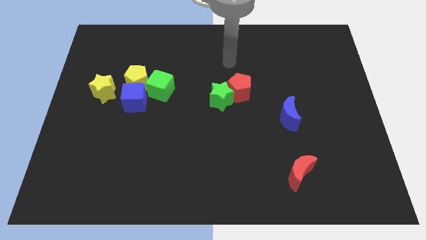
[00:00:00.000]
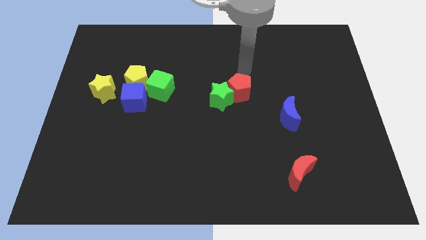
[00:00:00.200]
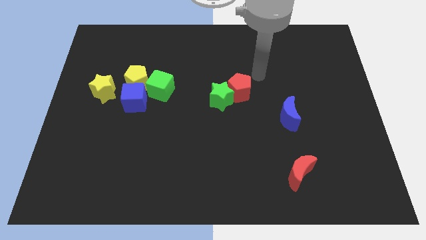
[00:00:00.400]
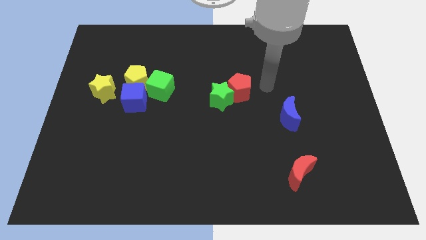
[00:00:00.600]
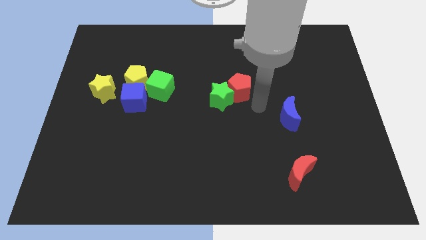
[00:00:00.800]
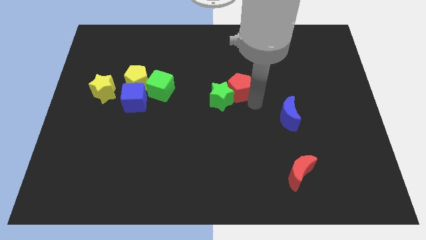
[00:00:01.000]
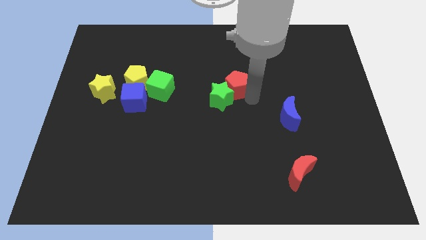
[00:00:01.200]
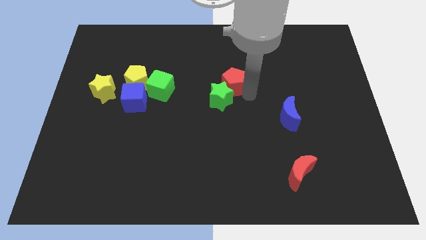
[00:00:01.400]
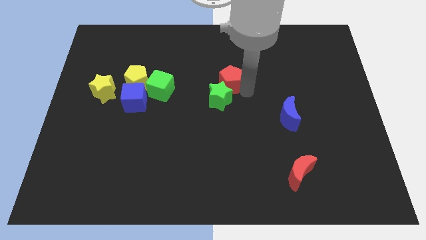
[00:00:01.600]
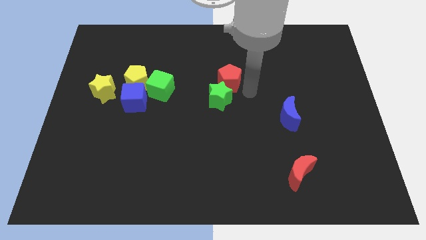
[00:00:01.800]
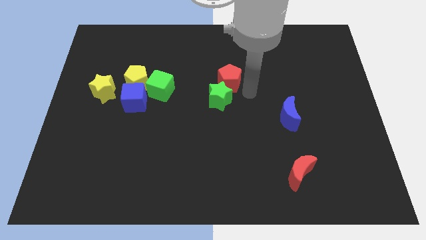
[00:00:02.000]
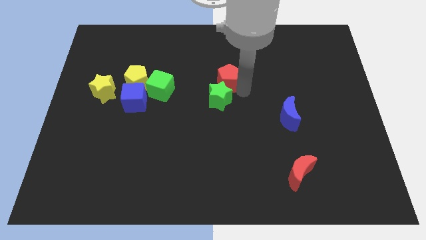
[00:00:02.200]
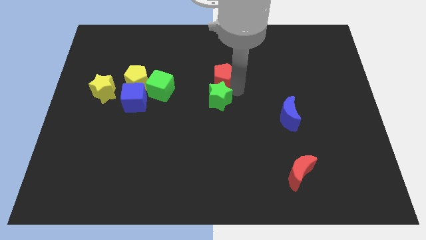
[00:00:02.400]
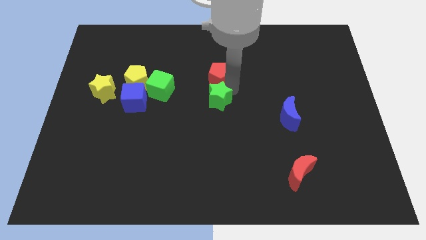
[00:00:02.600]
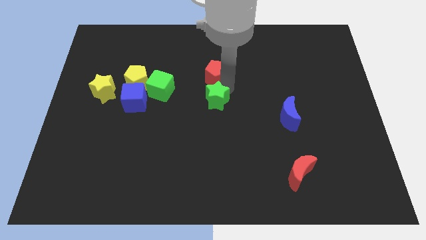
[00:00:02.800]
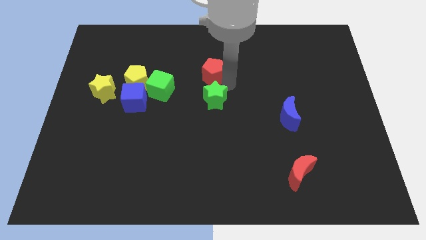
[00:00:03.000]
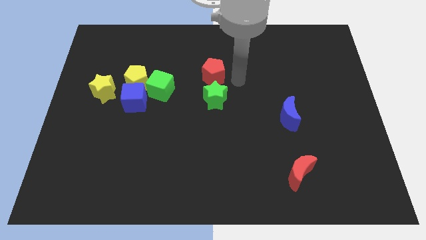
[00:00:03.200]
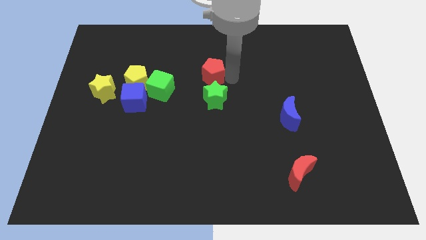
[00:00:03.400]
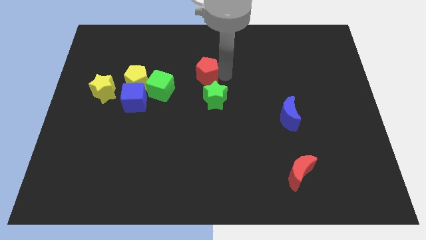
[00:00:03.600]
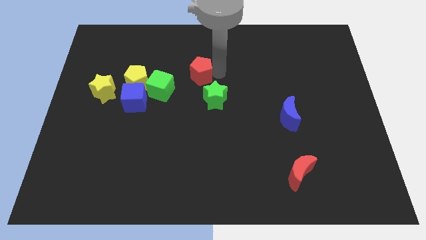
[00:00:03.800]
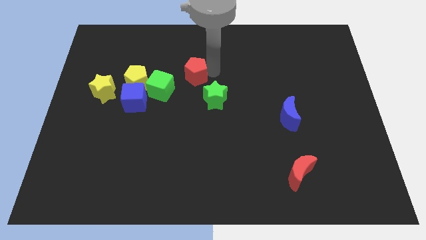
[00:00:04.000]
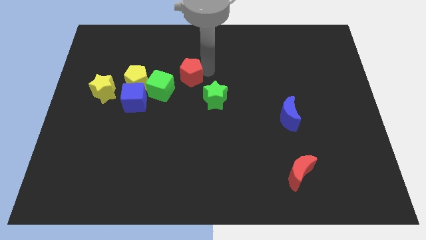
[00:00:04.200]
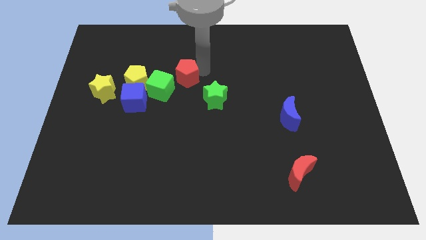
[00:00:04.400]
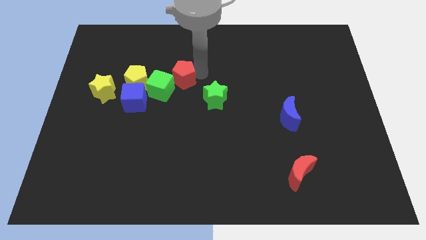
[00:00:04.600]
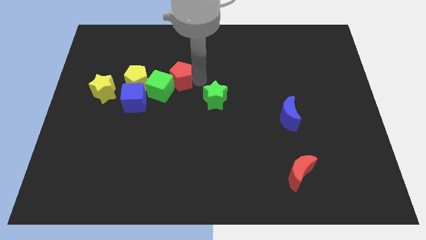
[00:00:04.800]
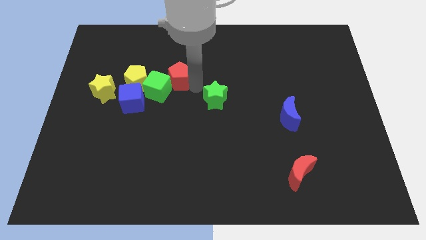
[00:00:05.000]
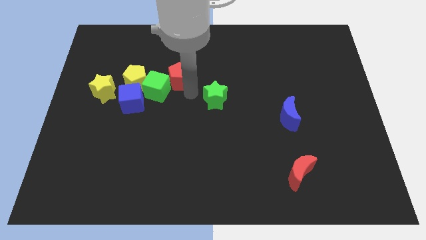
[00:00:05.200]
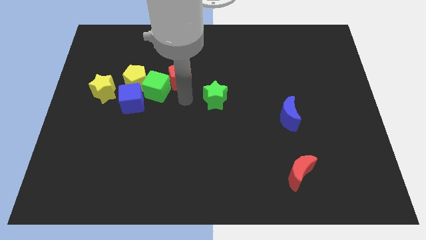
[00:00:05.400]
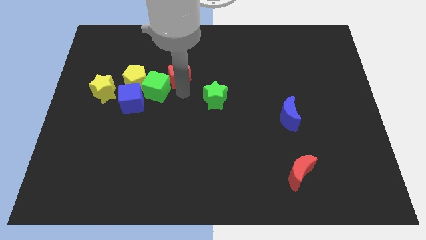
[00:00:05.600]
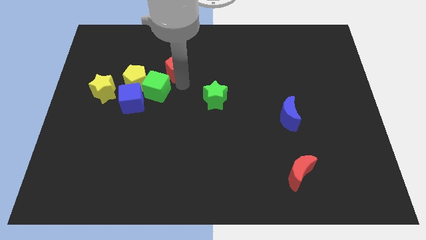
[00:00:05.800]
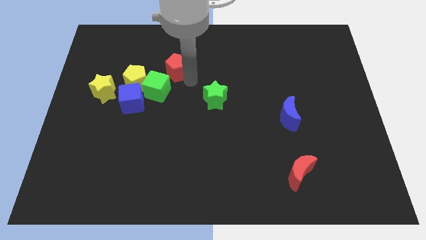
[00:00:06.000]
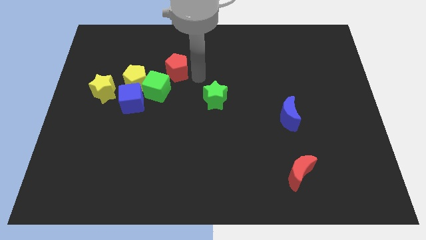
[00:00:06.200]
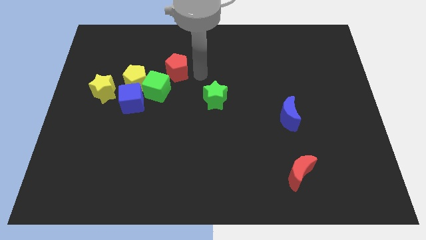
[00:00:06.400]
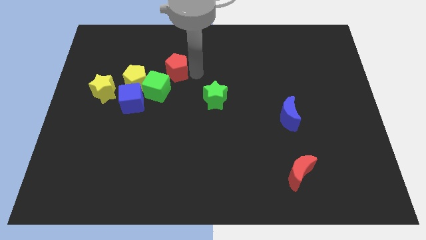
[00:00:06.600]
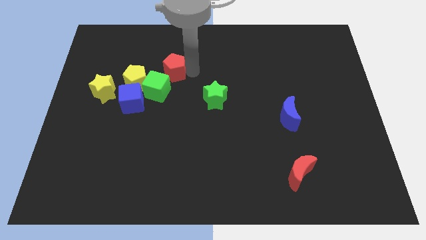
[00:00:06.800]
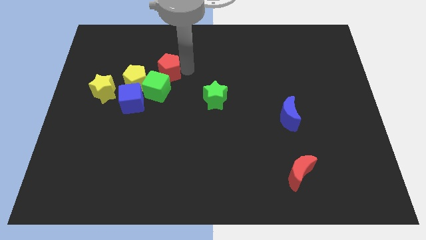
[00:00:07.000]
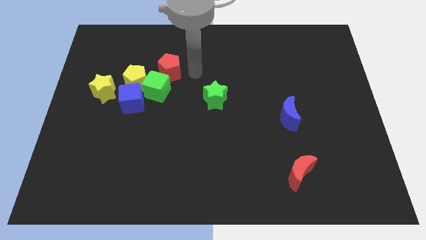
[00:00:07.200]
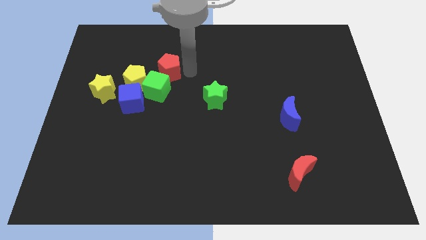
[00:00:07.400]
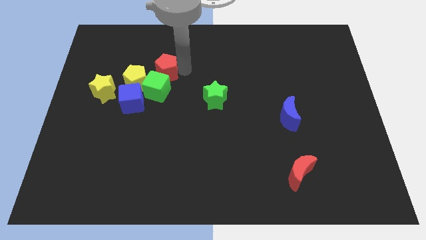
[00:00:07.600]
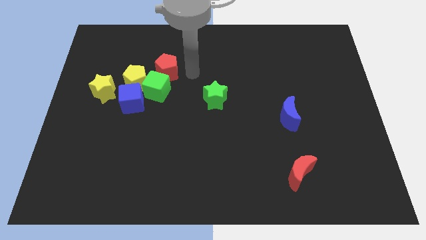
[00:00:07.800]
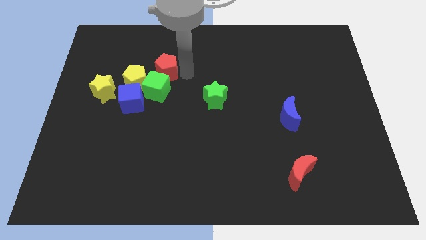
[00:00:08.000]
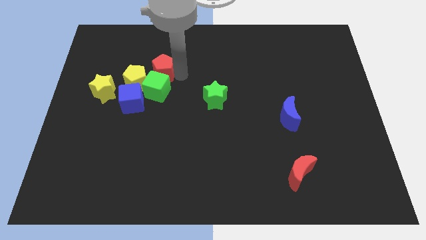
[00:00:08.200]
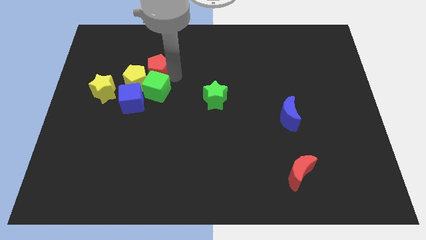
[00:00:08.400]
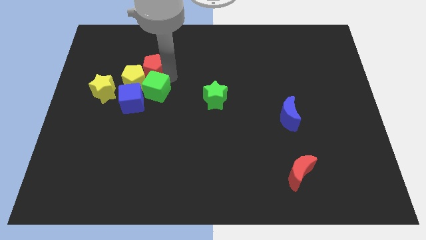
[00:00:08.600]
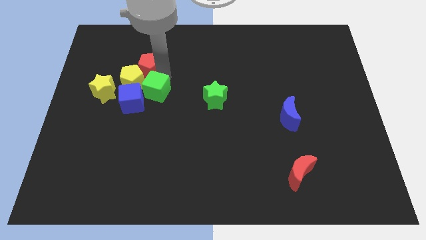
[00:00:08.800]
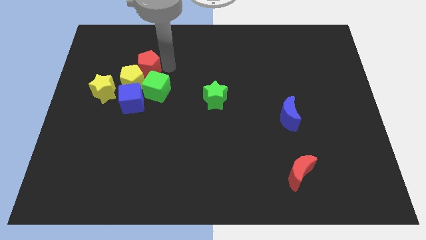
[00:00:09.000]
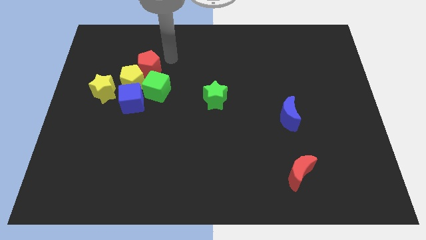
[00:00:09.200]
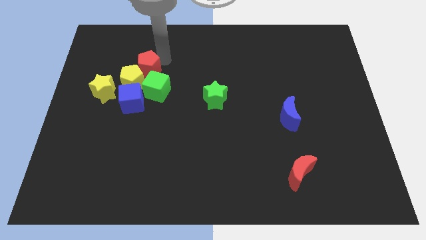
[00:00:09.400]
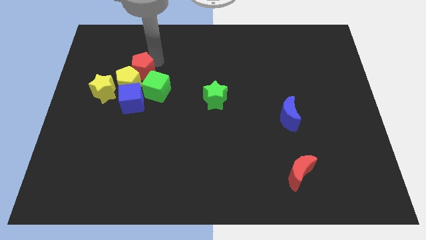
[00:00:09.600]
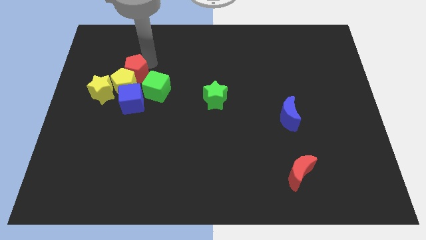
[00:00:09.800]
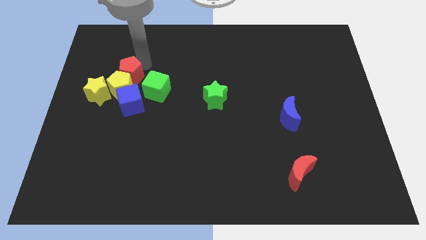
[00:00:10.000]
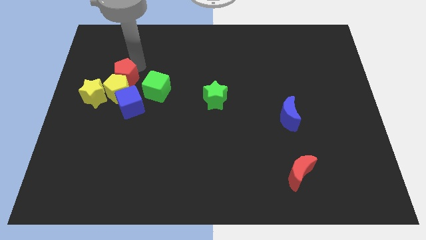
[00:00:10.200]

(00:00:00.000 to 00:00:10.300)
slide the red pentagon to the top left side of the blue cube

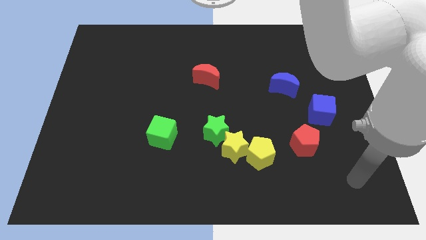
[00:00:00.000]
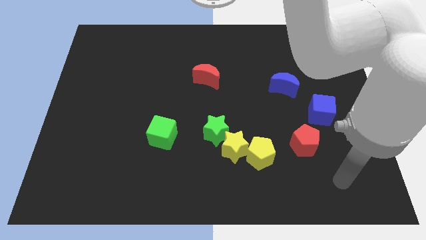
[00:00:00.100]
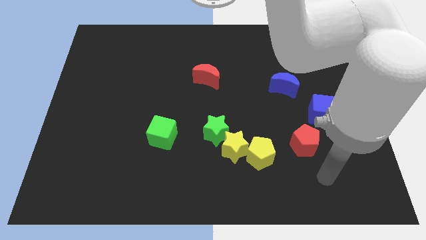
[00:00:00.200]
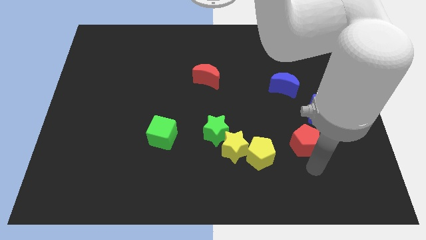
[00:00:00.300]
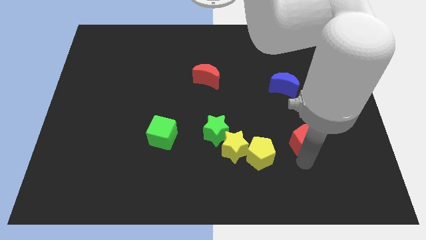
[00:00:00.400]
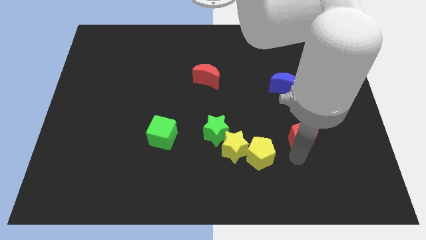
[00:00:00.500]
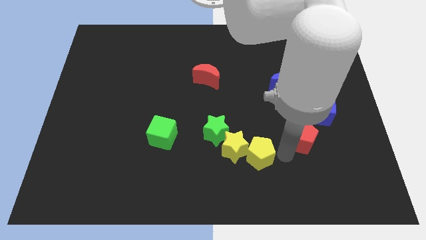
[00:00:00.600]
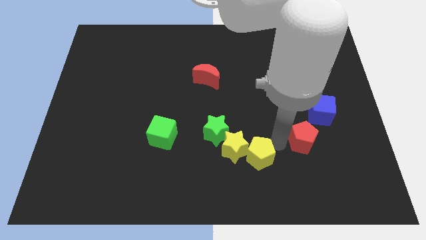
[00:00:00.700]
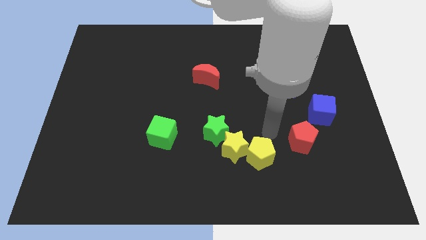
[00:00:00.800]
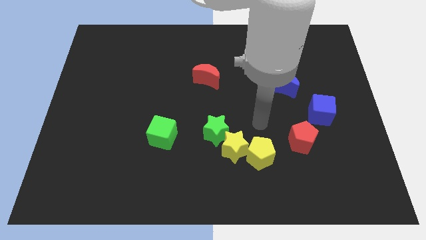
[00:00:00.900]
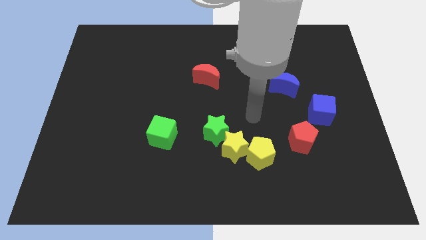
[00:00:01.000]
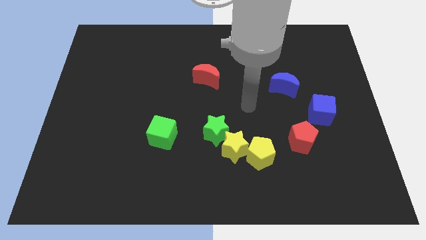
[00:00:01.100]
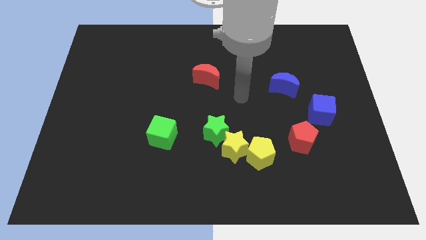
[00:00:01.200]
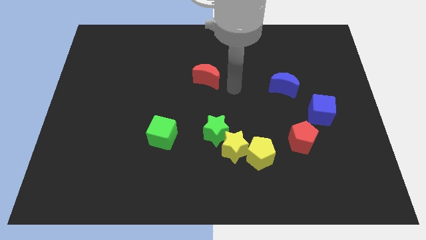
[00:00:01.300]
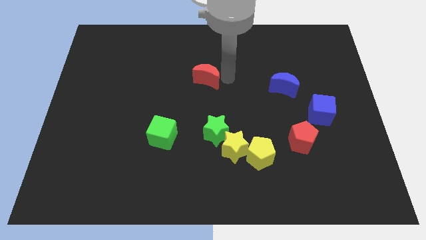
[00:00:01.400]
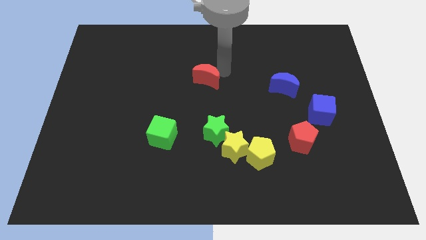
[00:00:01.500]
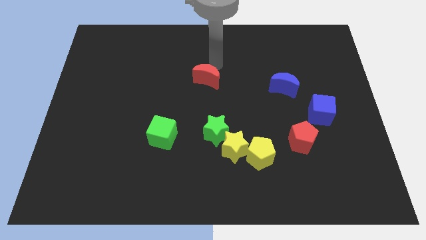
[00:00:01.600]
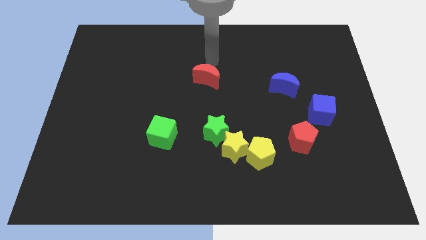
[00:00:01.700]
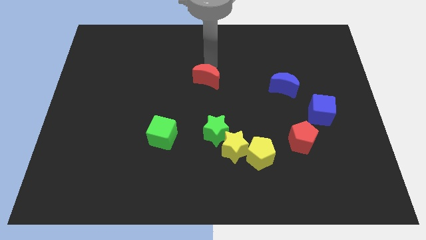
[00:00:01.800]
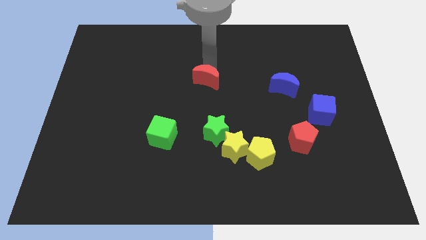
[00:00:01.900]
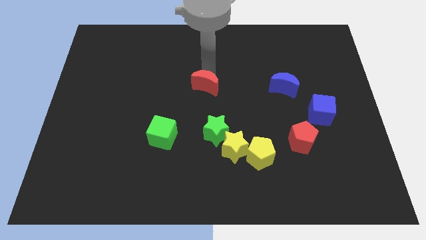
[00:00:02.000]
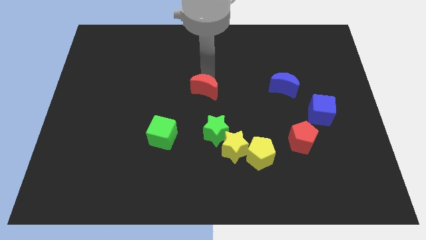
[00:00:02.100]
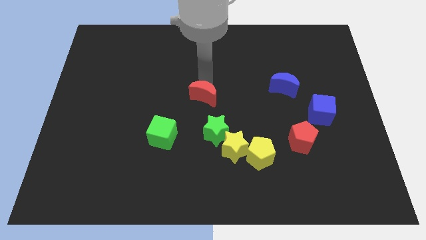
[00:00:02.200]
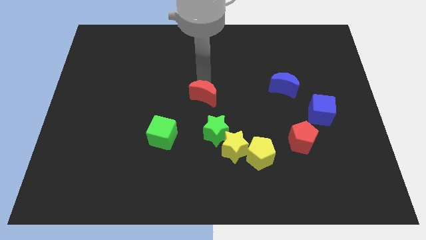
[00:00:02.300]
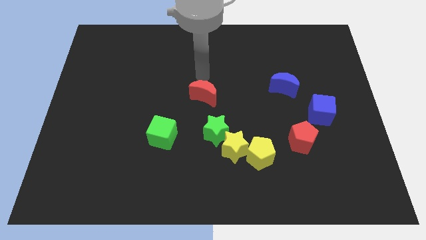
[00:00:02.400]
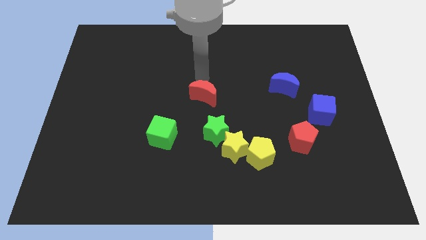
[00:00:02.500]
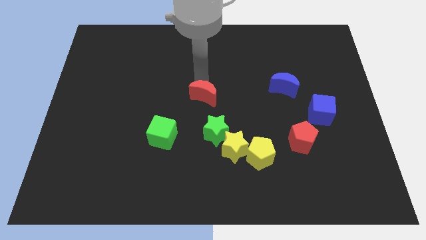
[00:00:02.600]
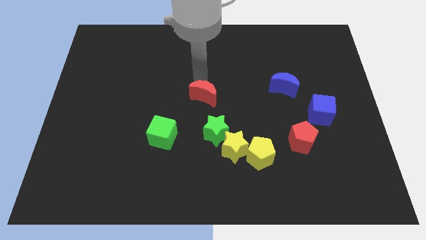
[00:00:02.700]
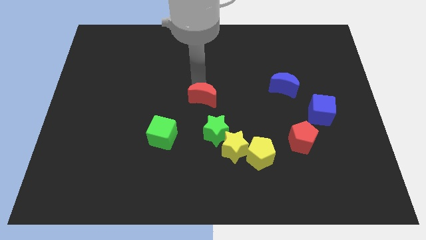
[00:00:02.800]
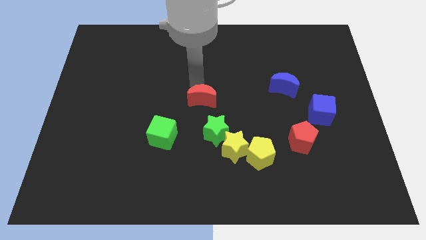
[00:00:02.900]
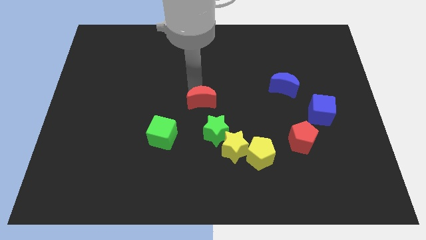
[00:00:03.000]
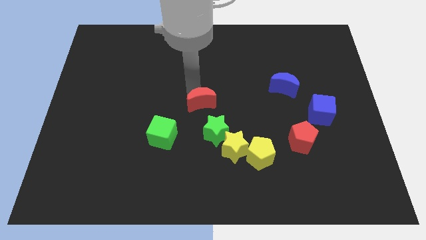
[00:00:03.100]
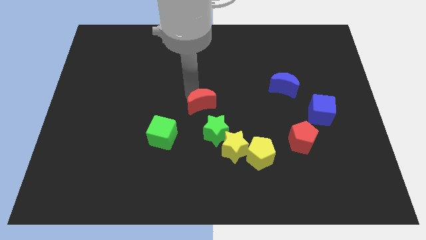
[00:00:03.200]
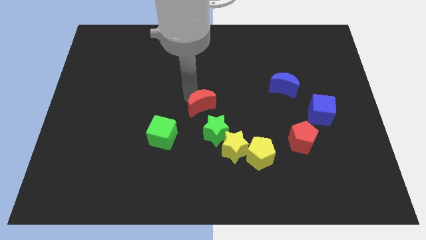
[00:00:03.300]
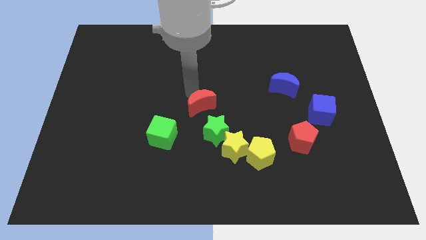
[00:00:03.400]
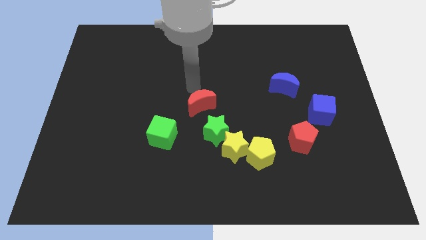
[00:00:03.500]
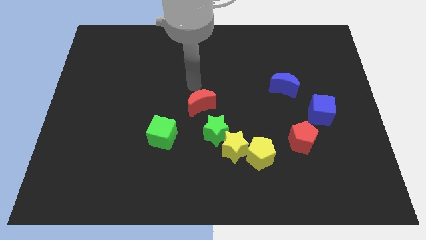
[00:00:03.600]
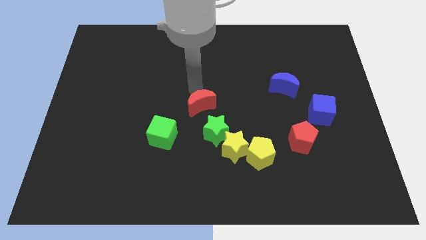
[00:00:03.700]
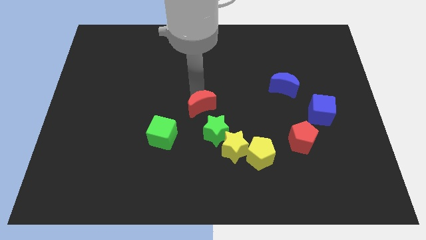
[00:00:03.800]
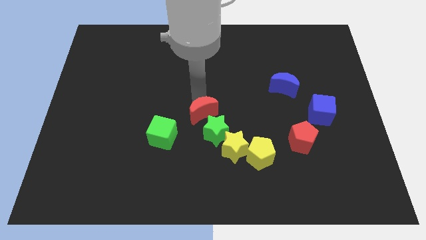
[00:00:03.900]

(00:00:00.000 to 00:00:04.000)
put the red moon to the top left side of the yellow star
